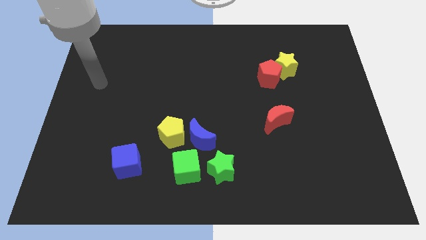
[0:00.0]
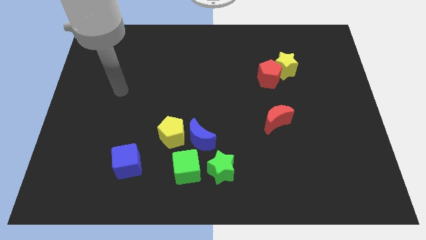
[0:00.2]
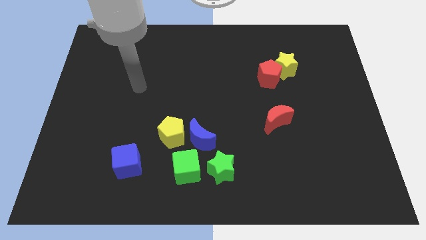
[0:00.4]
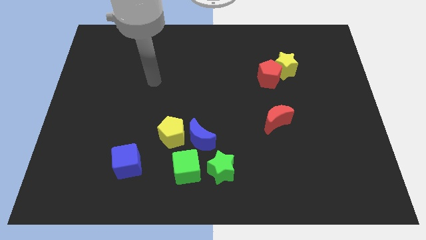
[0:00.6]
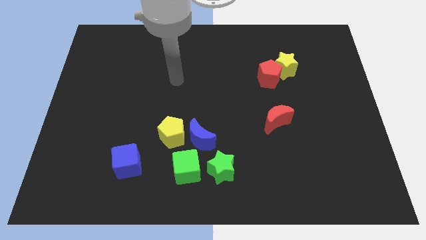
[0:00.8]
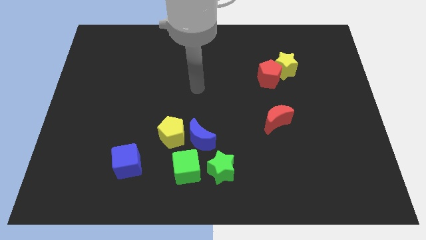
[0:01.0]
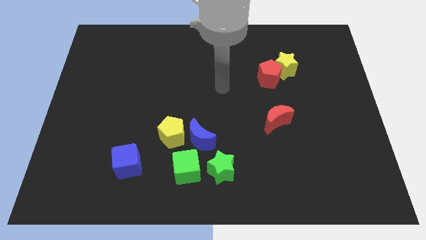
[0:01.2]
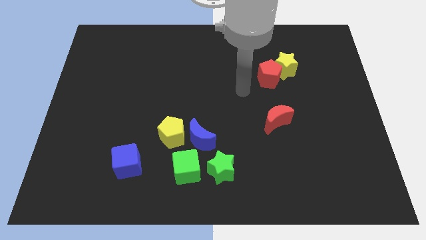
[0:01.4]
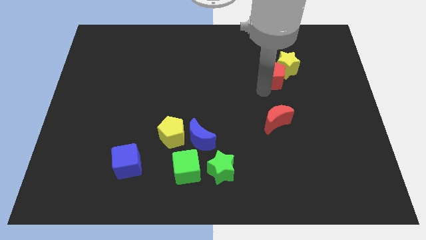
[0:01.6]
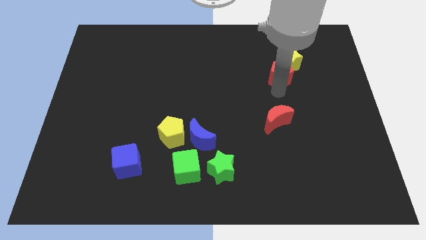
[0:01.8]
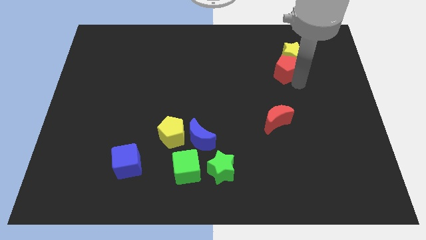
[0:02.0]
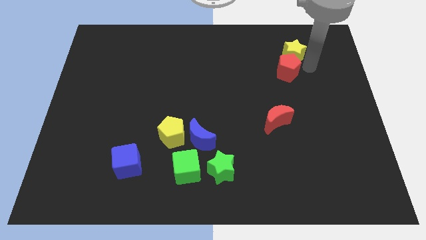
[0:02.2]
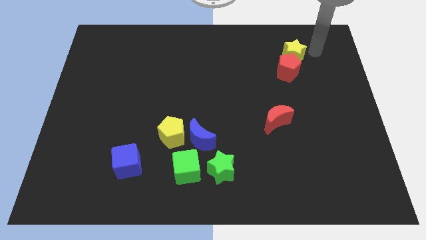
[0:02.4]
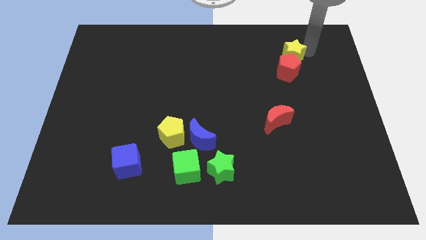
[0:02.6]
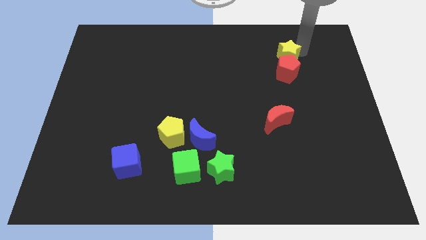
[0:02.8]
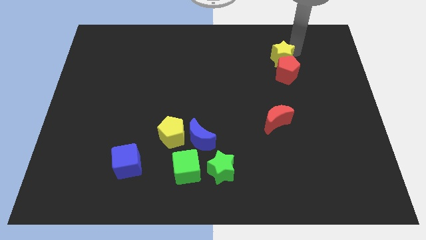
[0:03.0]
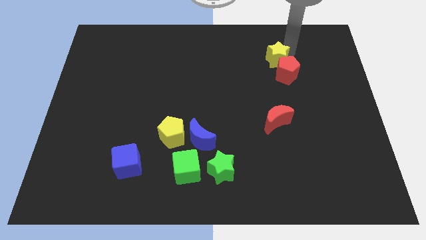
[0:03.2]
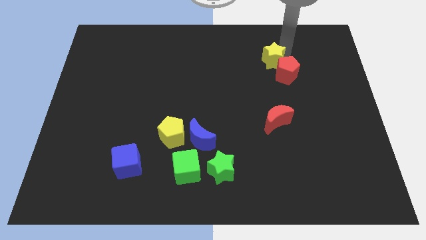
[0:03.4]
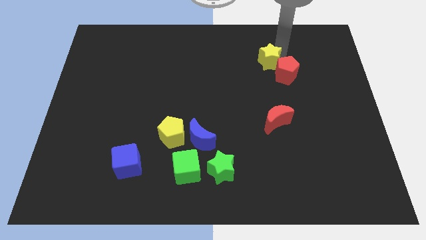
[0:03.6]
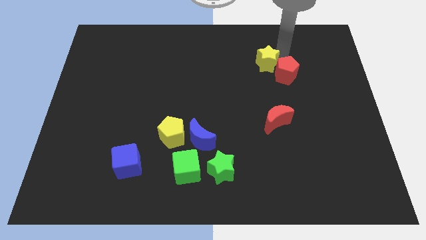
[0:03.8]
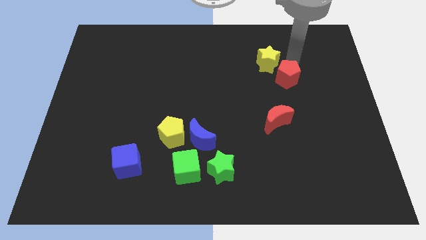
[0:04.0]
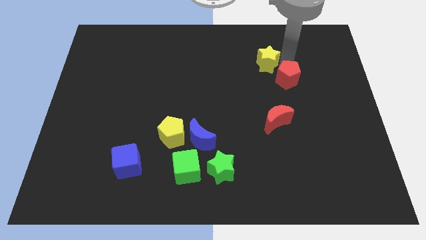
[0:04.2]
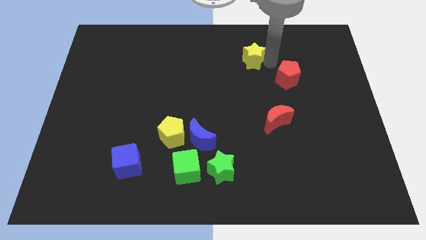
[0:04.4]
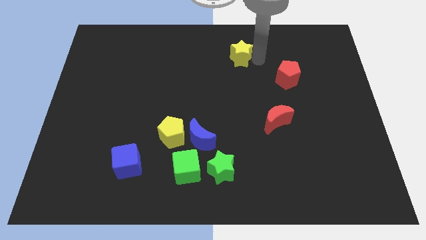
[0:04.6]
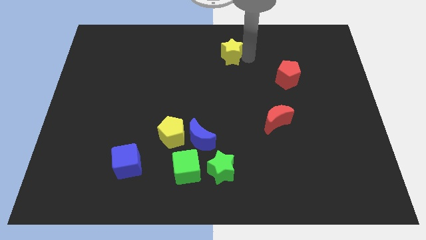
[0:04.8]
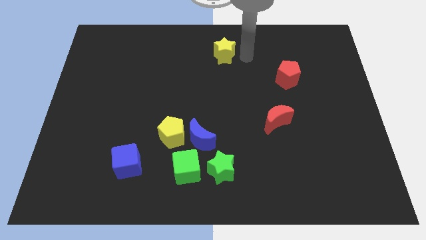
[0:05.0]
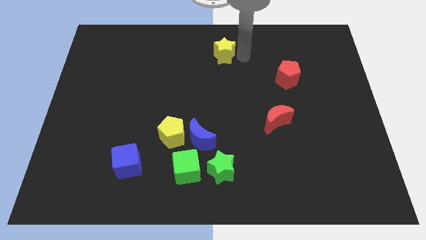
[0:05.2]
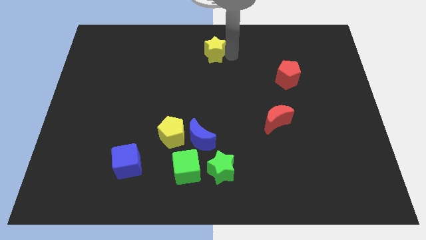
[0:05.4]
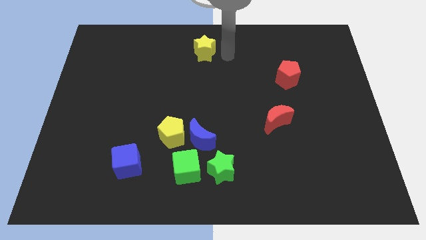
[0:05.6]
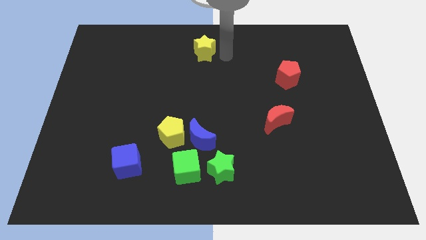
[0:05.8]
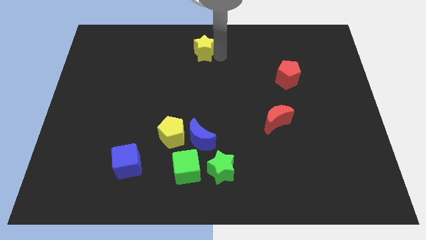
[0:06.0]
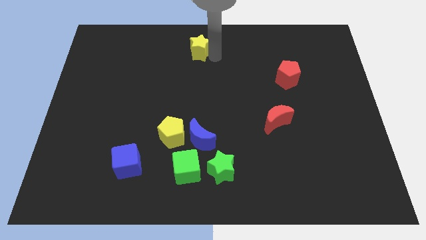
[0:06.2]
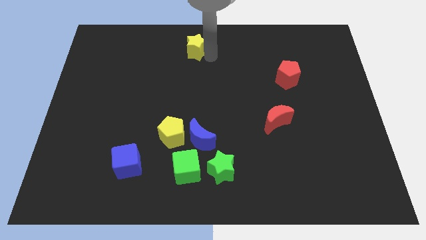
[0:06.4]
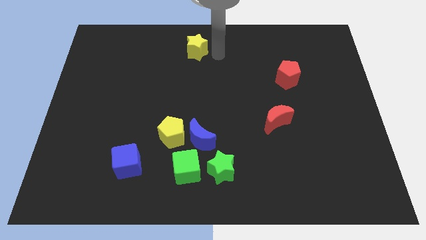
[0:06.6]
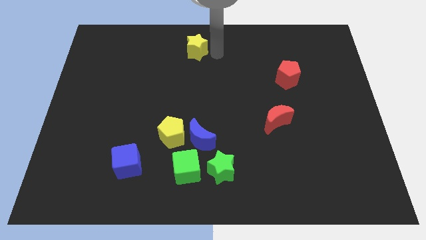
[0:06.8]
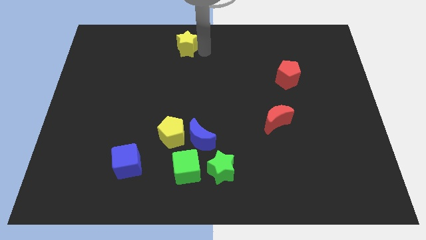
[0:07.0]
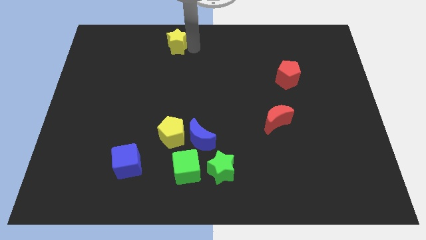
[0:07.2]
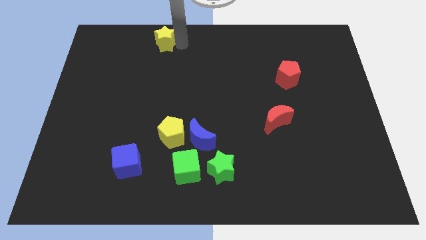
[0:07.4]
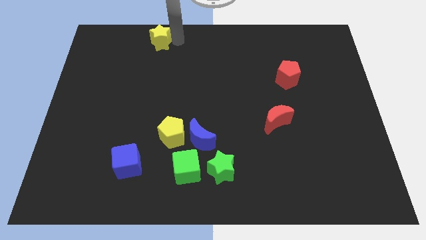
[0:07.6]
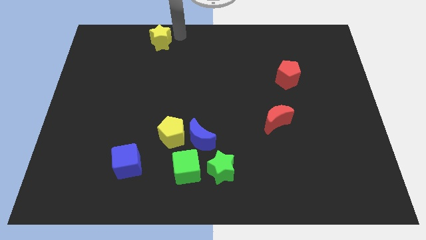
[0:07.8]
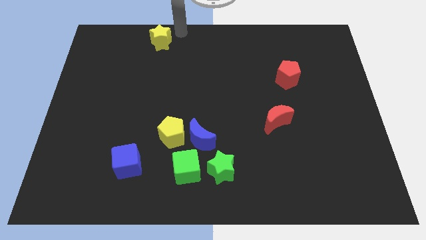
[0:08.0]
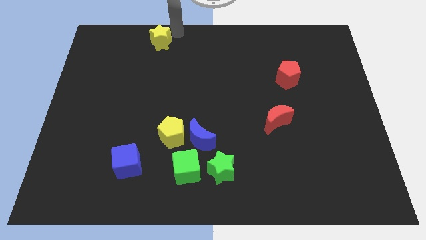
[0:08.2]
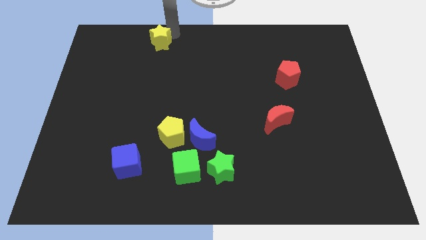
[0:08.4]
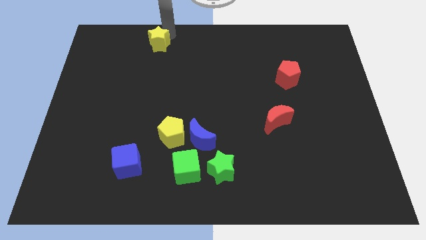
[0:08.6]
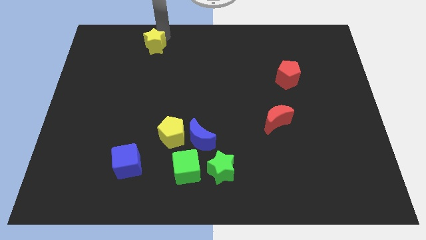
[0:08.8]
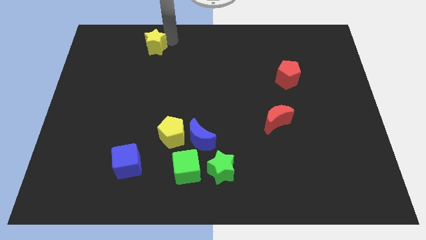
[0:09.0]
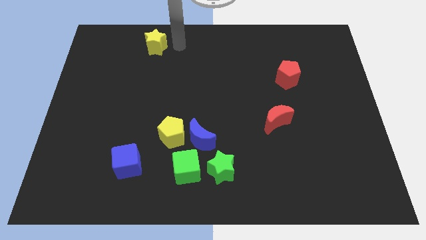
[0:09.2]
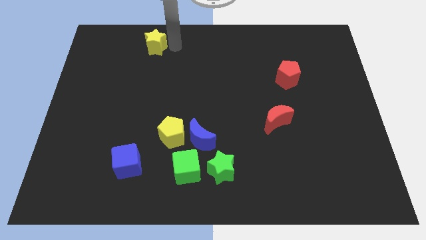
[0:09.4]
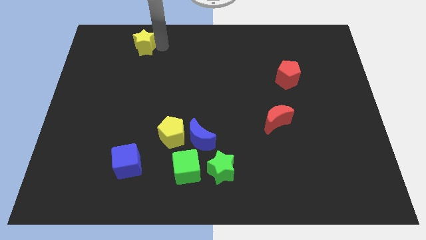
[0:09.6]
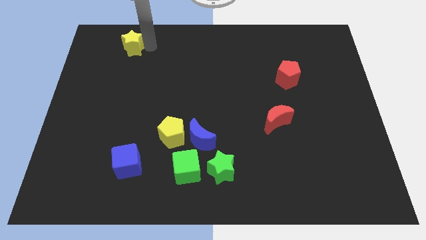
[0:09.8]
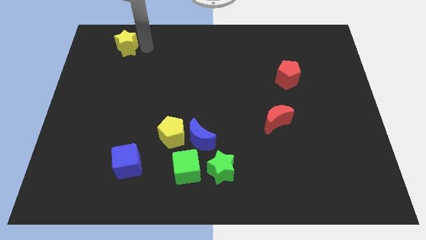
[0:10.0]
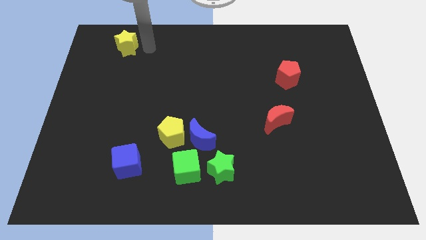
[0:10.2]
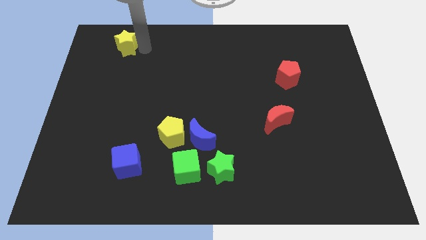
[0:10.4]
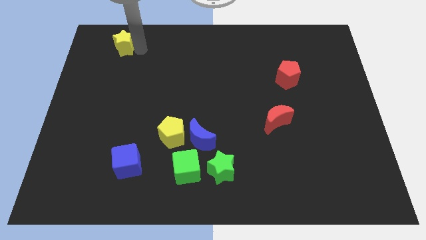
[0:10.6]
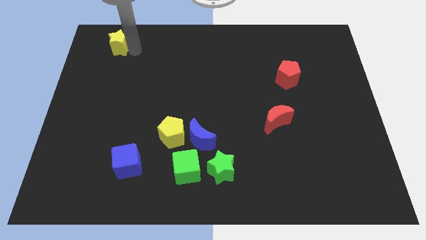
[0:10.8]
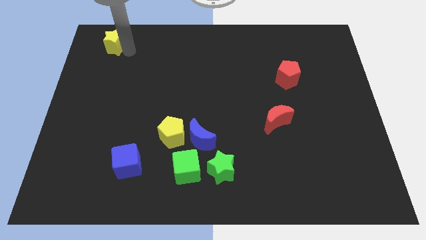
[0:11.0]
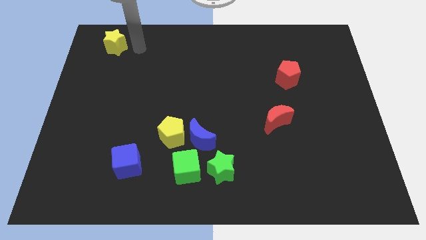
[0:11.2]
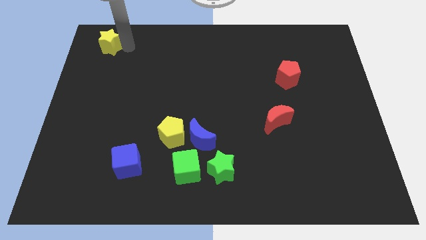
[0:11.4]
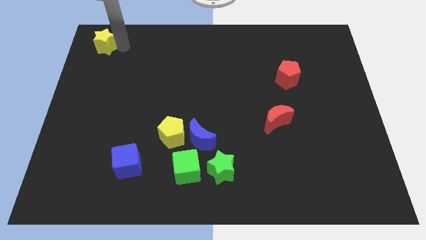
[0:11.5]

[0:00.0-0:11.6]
slide the yellow star to the upper left corner

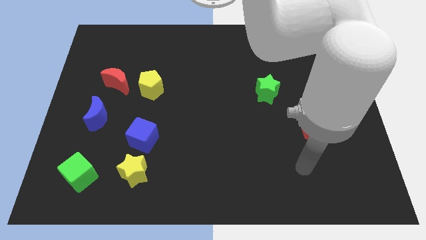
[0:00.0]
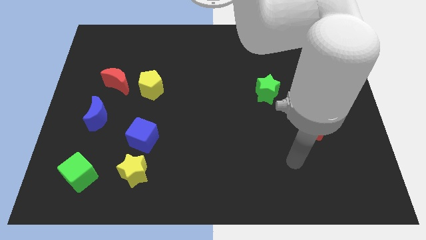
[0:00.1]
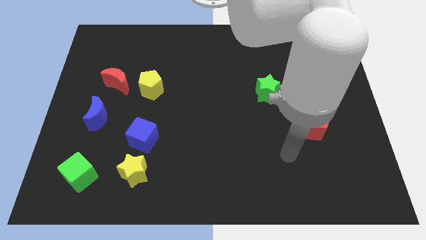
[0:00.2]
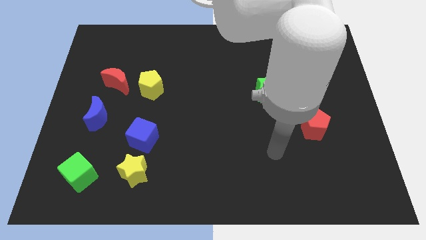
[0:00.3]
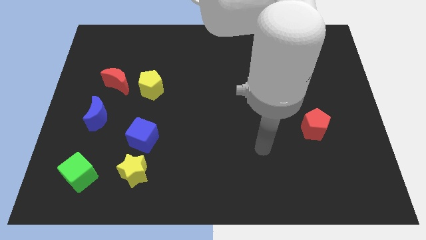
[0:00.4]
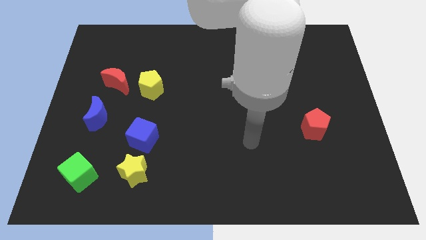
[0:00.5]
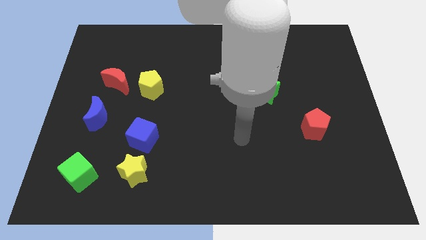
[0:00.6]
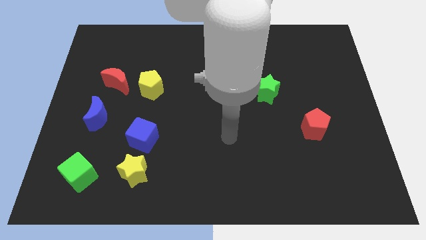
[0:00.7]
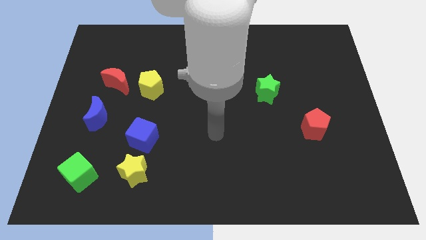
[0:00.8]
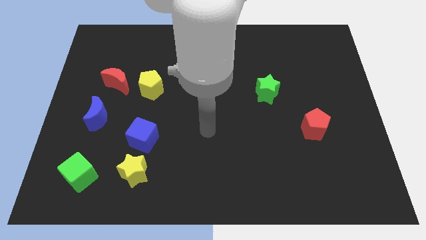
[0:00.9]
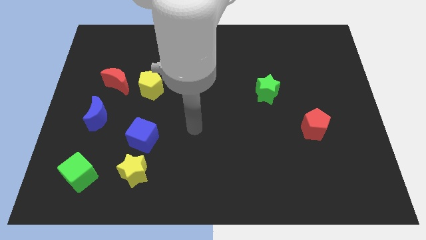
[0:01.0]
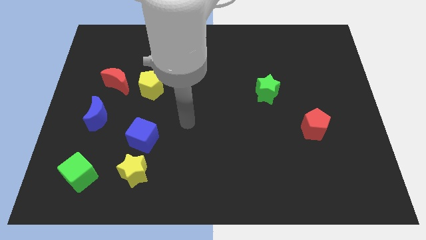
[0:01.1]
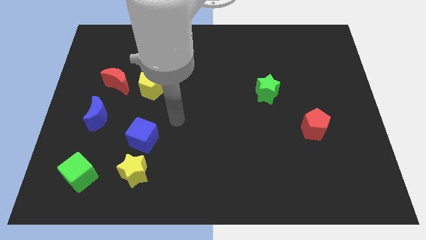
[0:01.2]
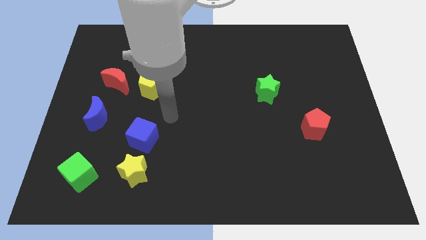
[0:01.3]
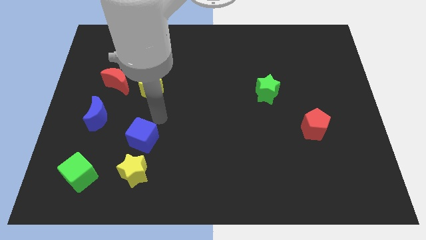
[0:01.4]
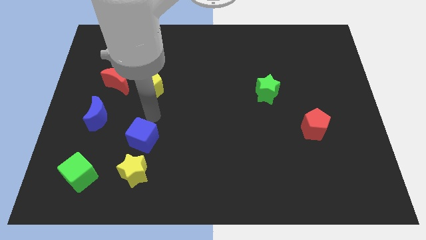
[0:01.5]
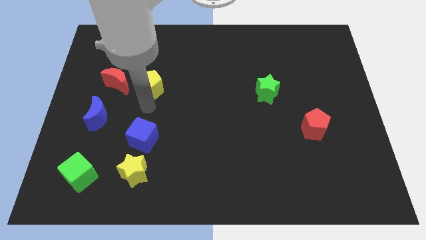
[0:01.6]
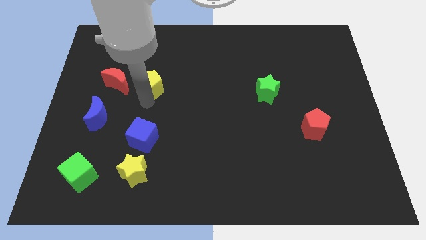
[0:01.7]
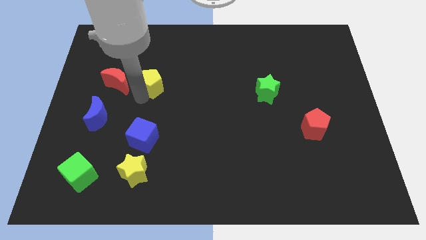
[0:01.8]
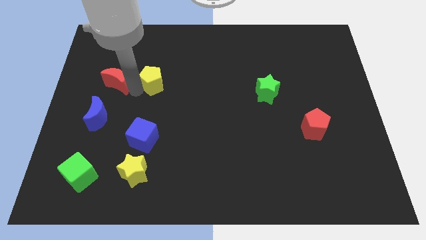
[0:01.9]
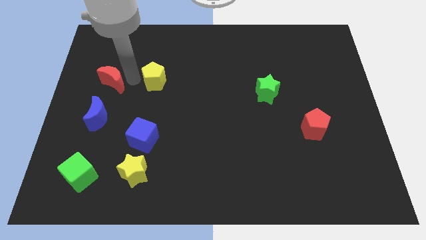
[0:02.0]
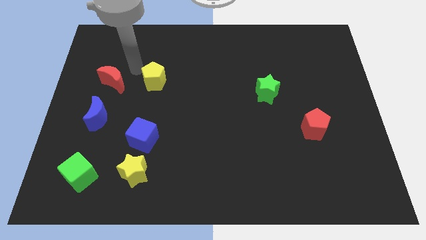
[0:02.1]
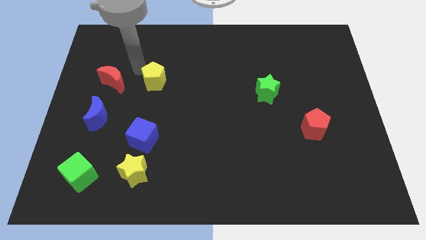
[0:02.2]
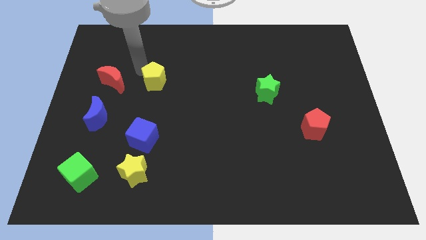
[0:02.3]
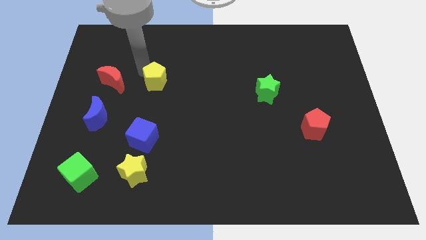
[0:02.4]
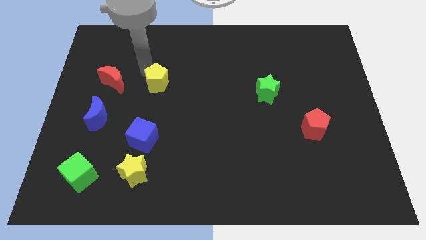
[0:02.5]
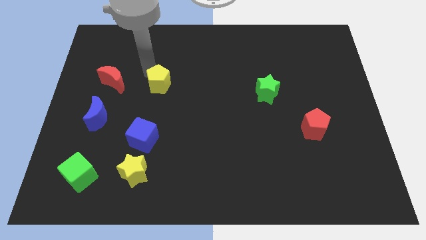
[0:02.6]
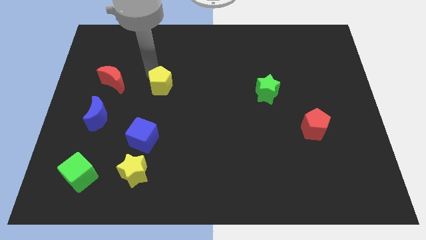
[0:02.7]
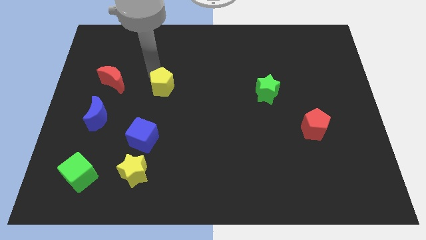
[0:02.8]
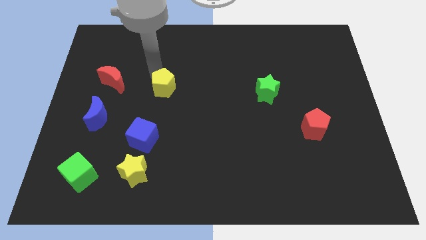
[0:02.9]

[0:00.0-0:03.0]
move the yellow pentagon to the middle of the board
